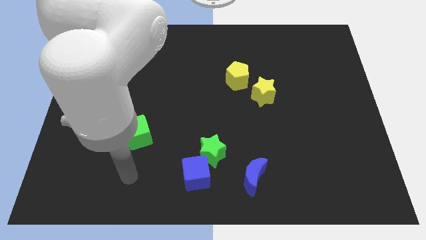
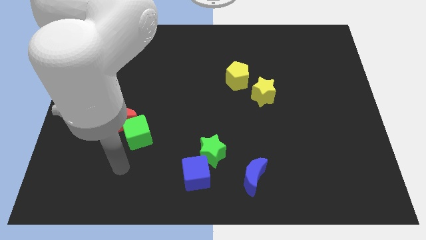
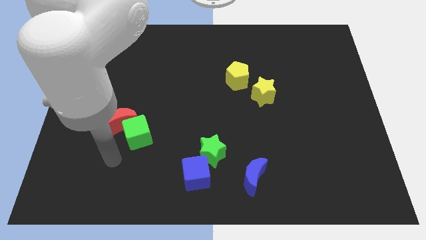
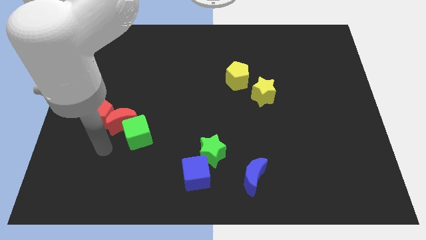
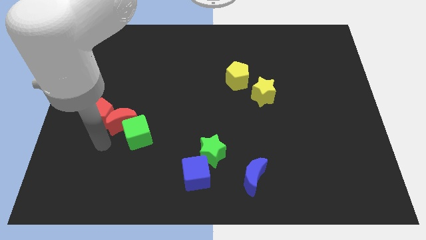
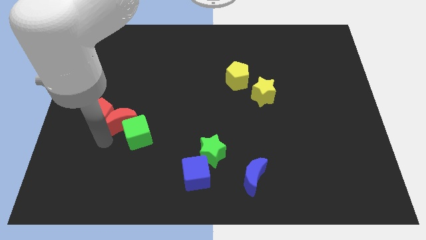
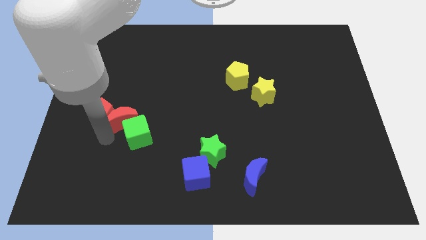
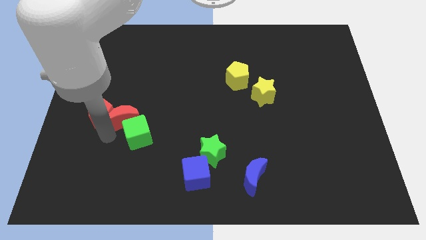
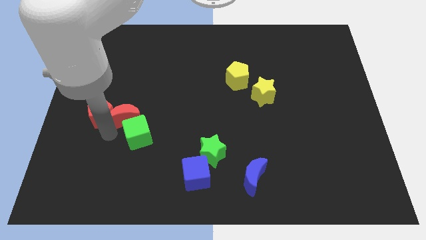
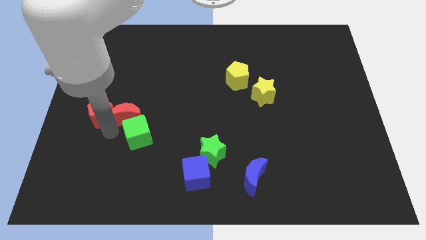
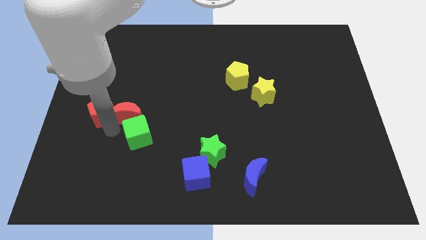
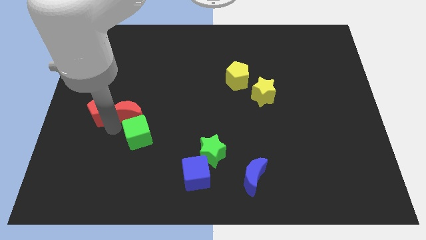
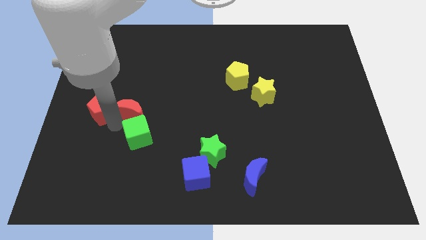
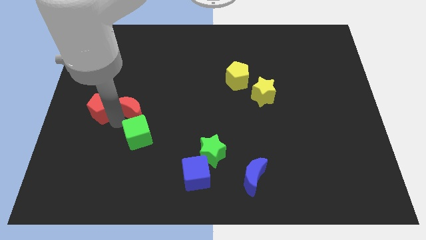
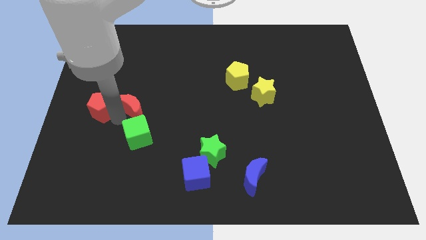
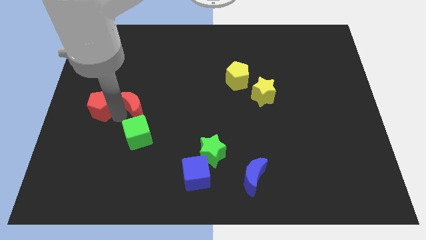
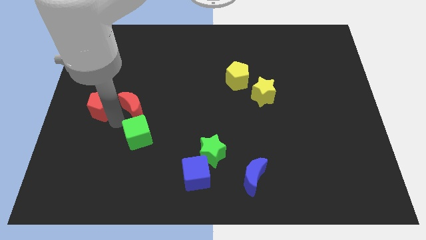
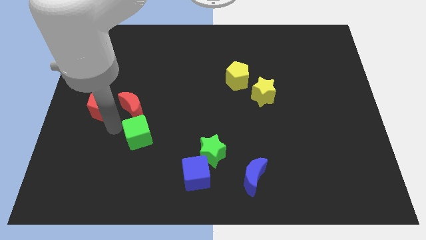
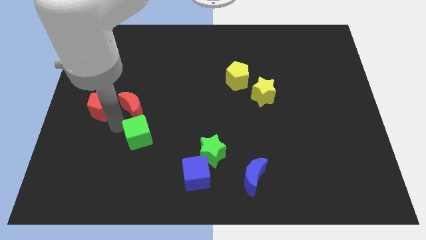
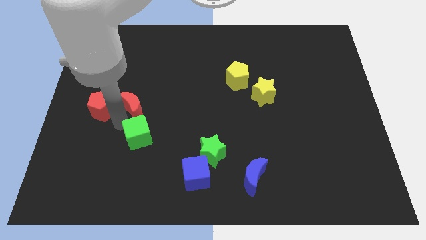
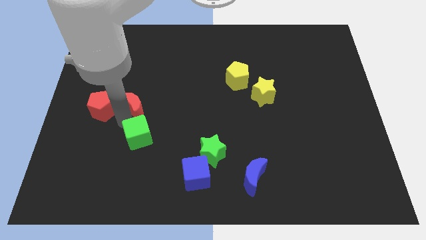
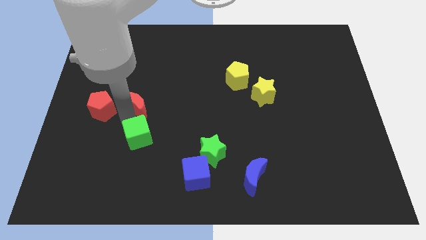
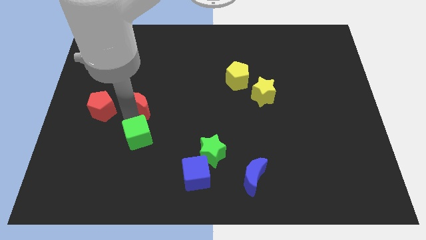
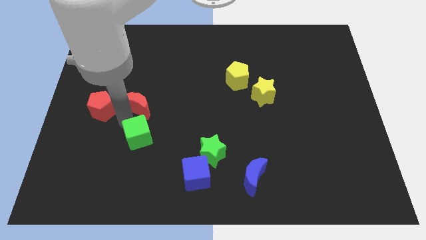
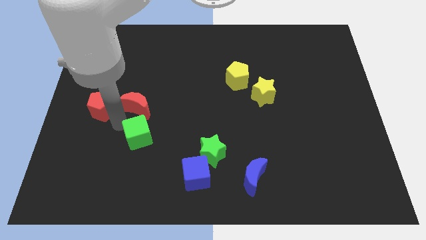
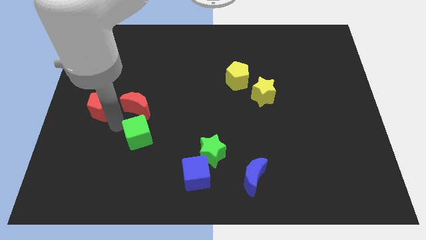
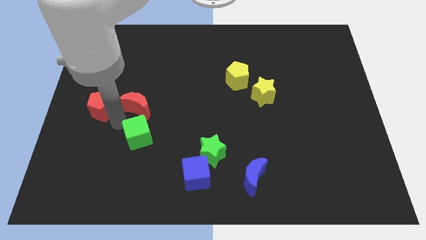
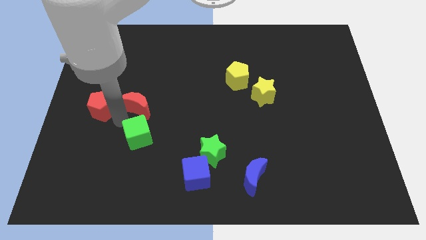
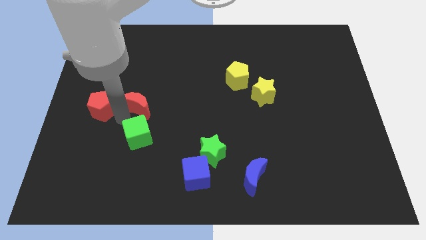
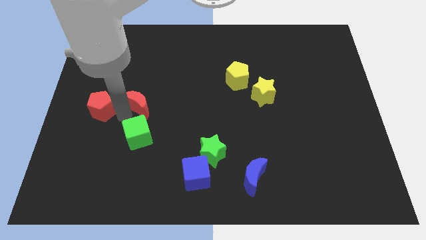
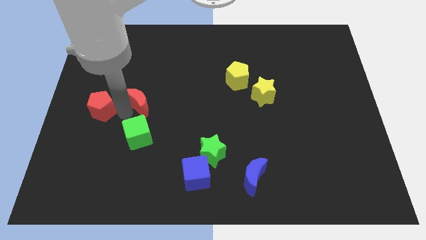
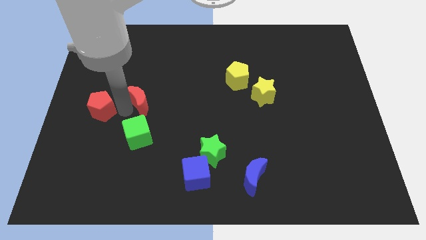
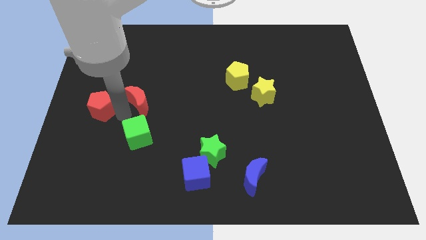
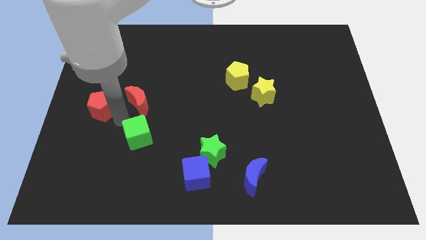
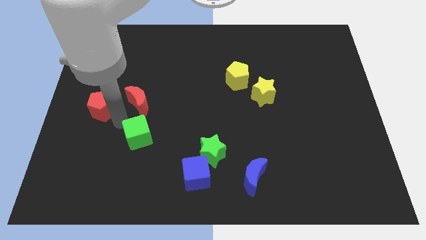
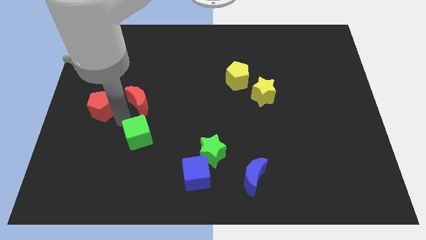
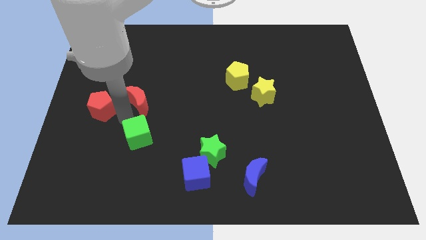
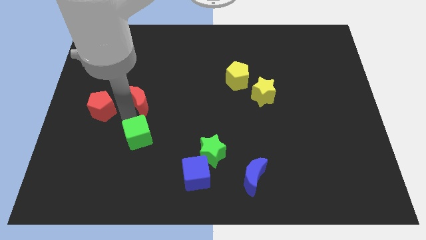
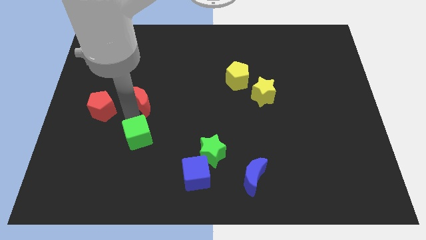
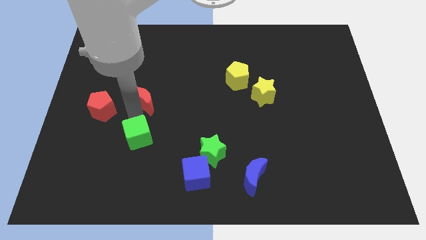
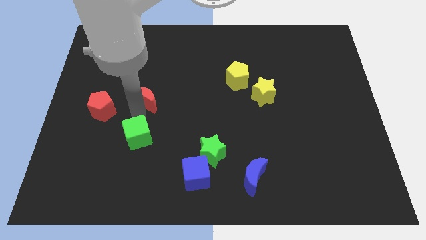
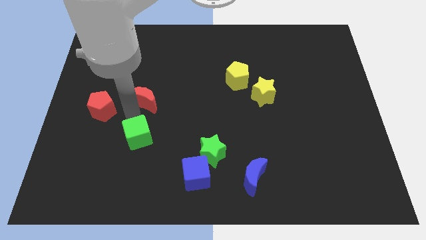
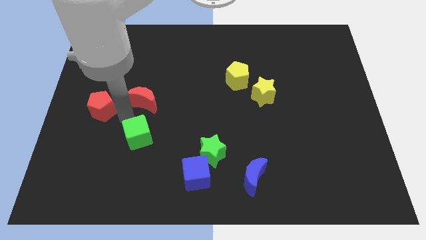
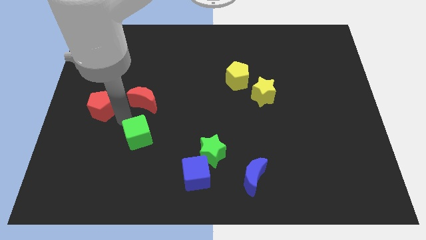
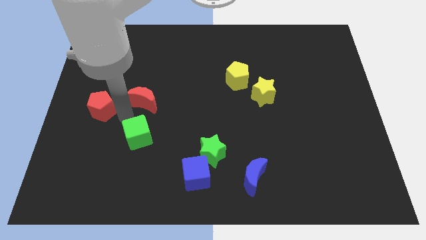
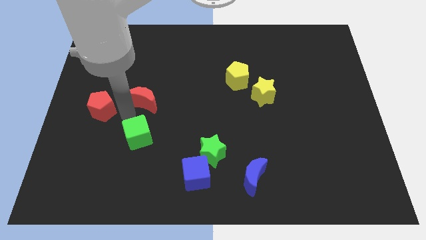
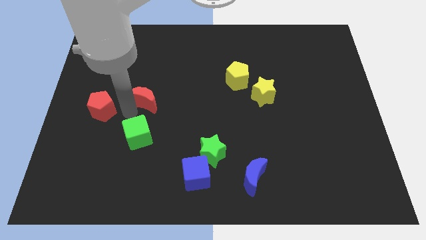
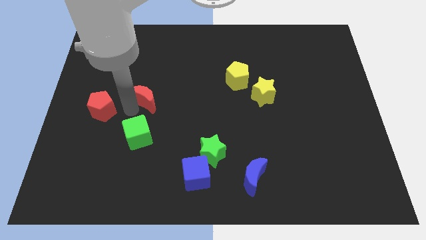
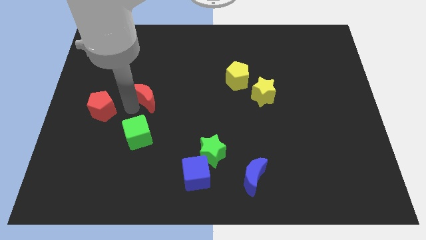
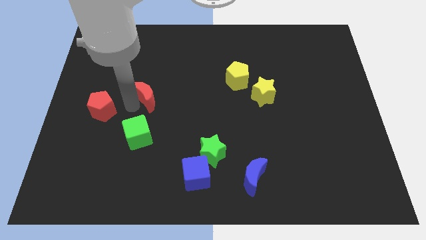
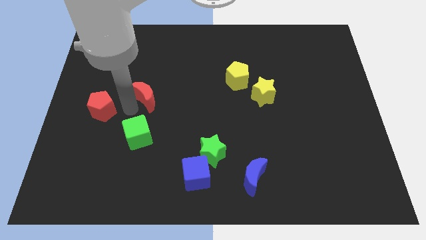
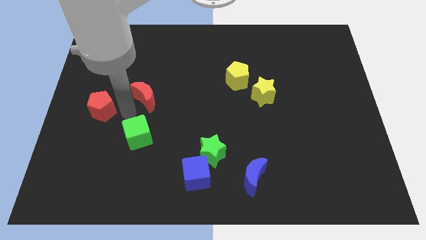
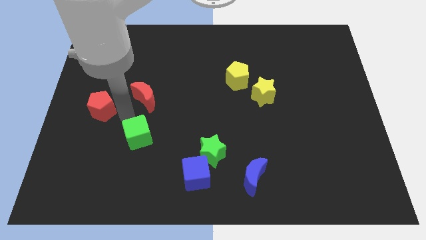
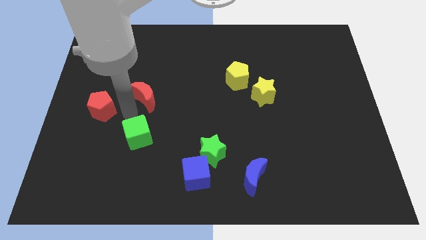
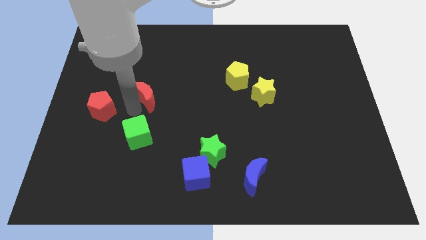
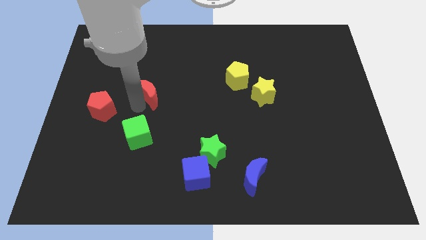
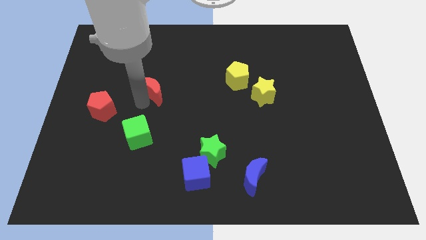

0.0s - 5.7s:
pull the red moon apart from the green cube and red pentagon

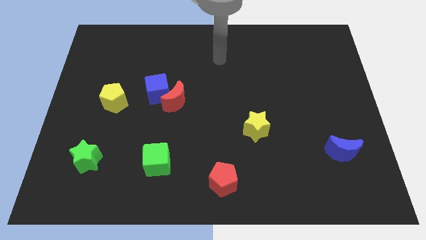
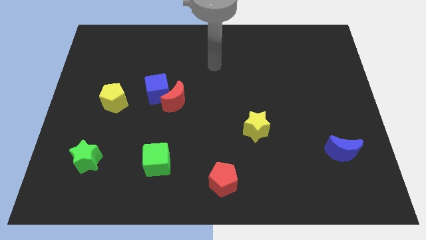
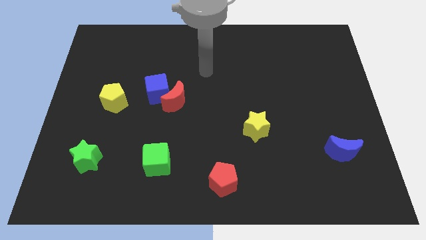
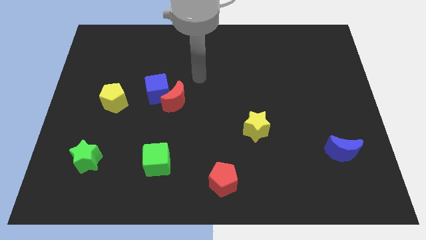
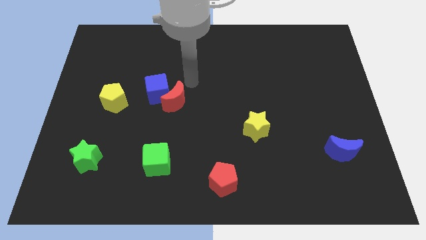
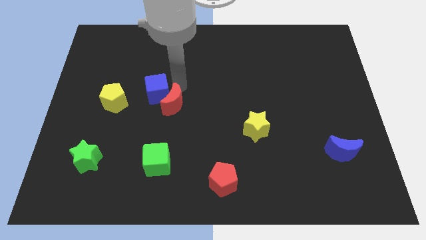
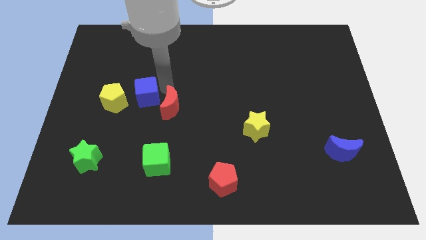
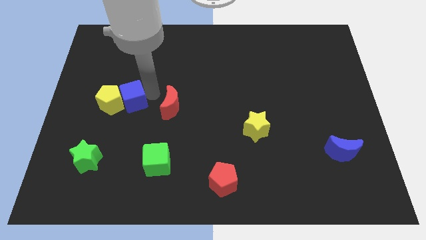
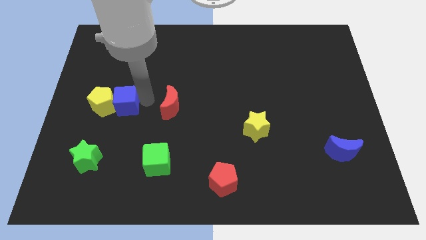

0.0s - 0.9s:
pull the red moon apart from the blue cube

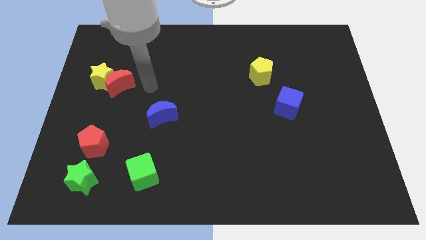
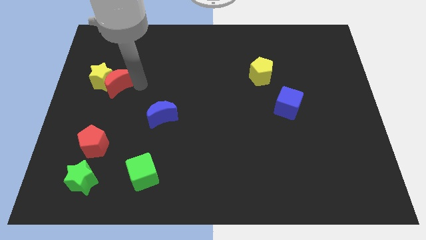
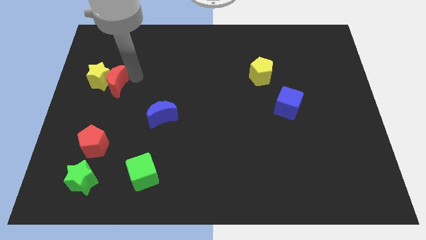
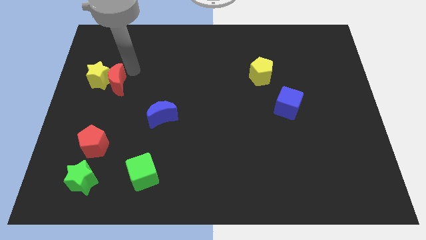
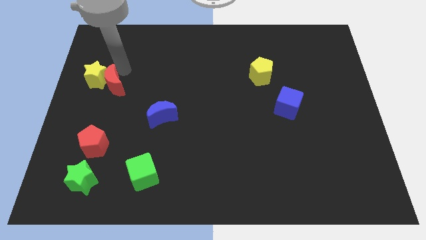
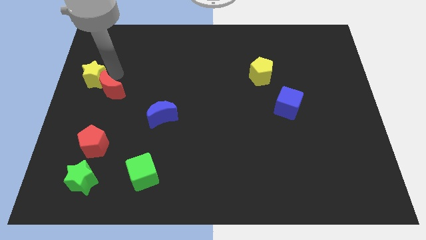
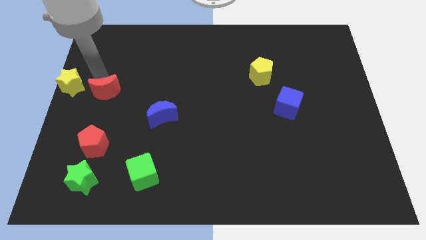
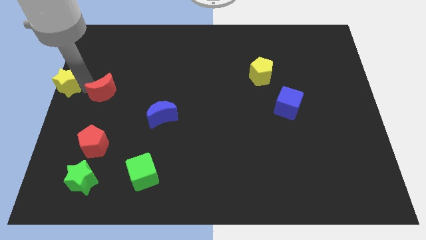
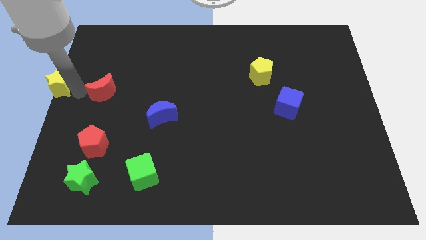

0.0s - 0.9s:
pull the red moon apart from the yellow star

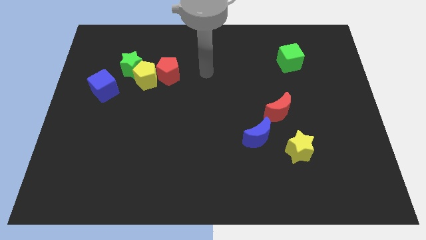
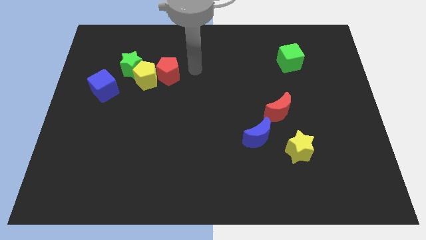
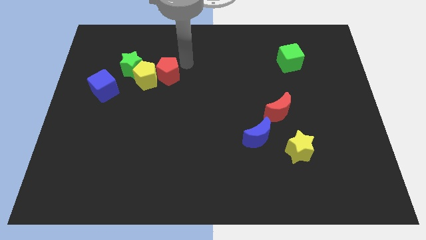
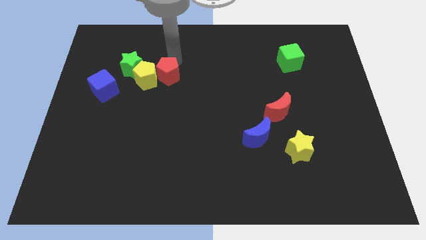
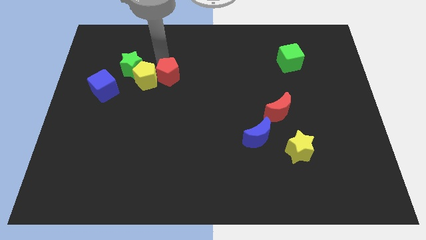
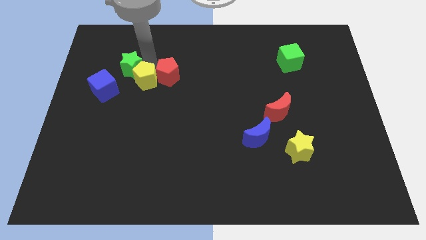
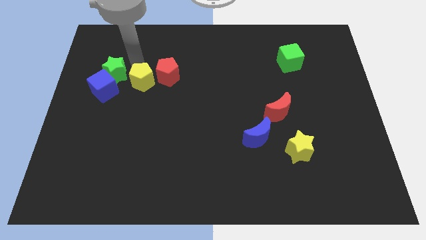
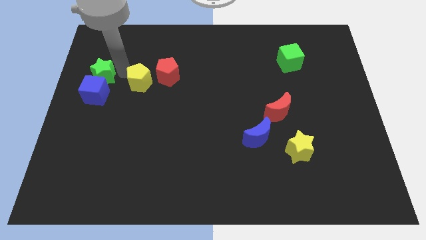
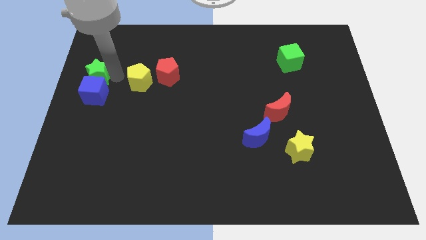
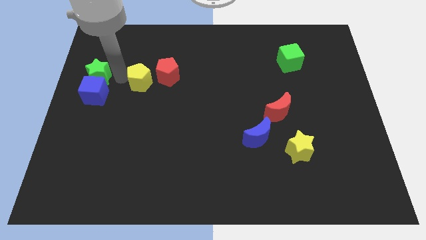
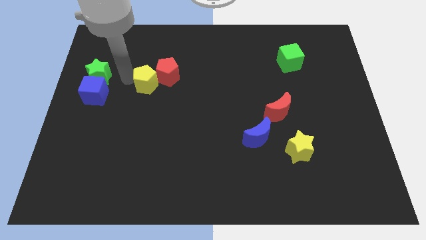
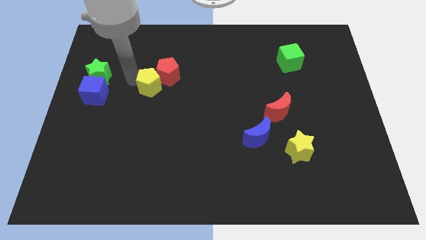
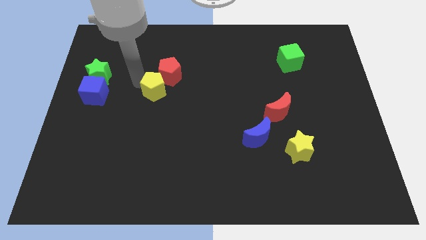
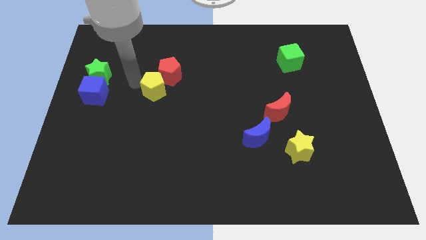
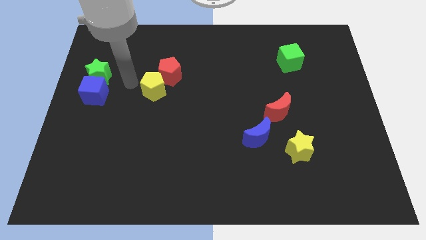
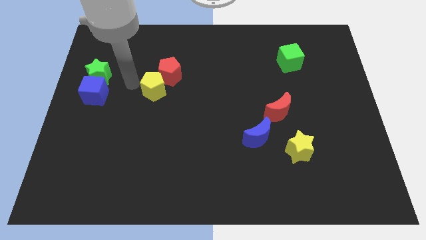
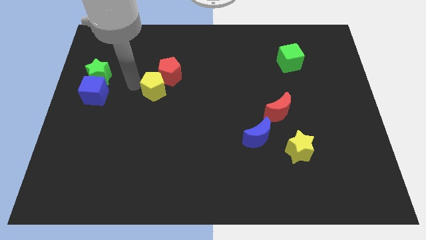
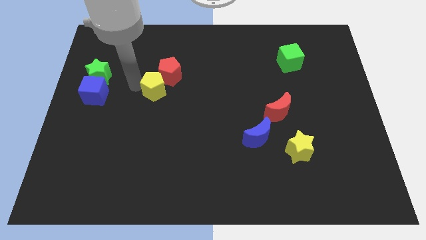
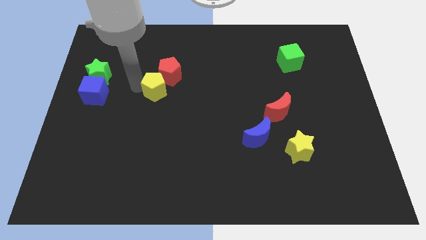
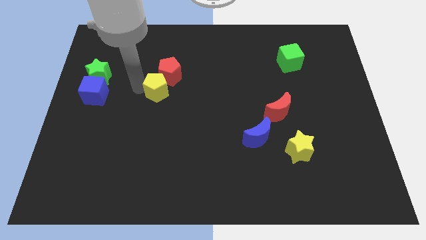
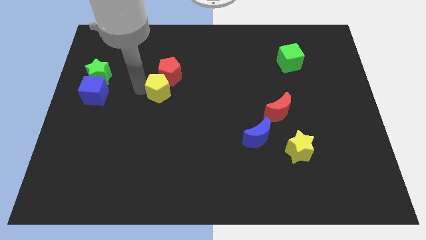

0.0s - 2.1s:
move the yellow pentagon away from the green star, red pentagon, and blue cube
